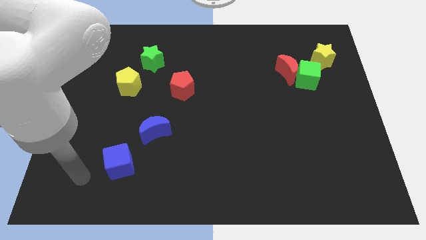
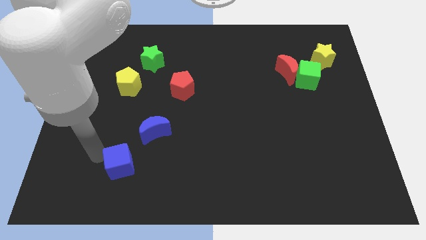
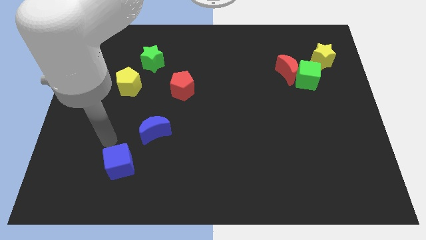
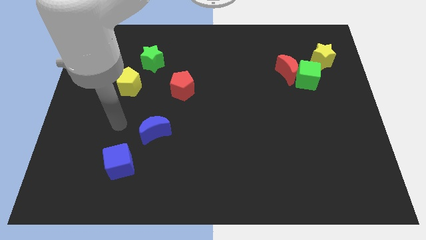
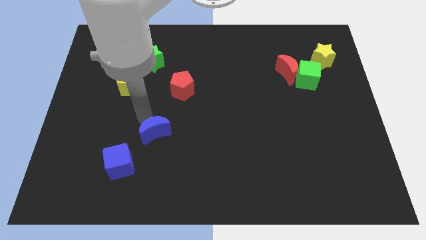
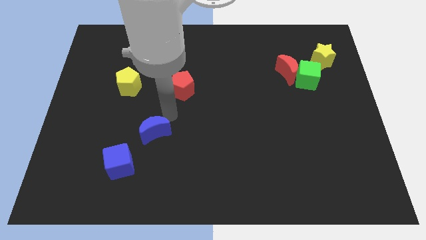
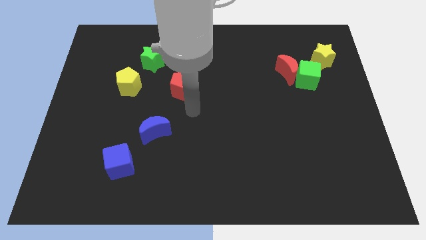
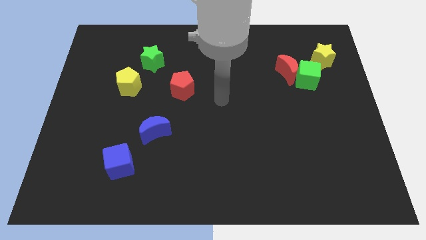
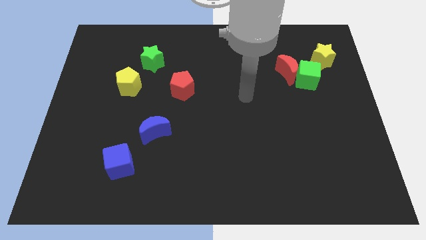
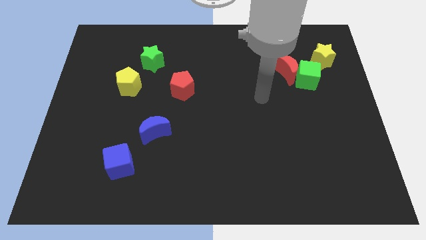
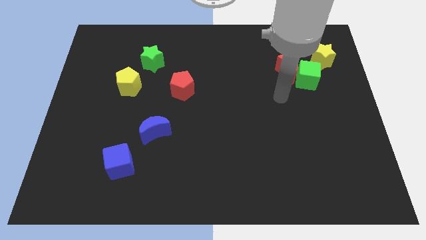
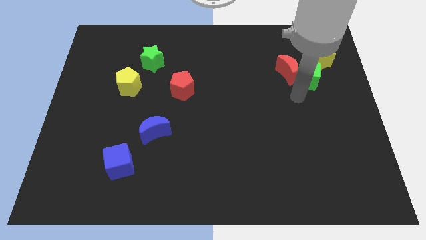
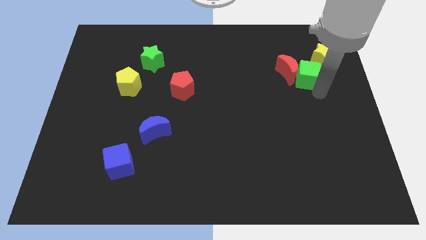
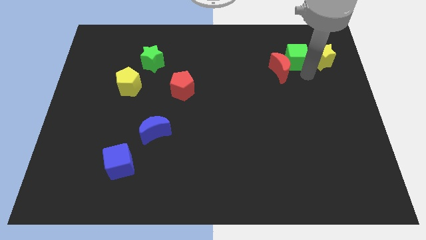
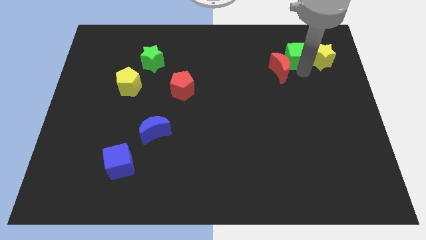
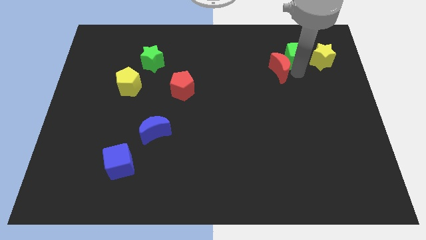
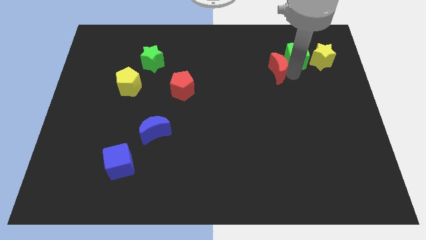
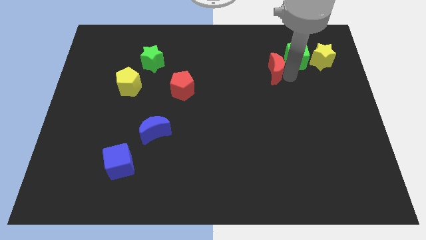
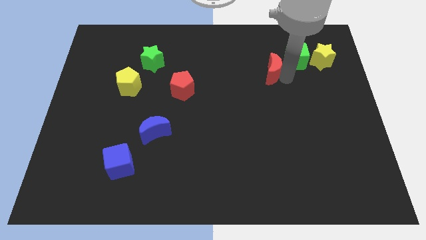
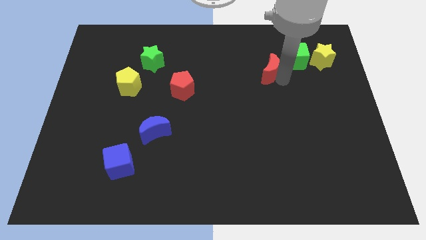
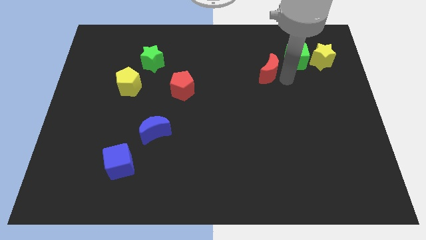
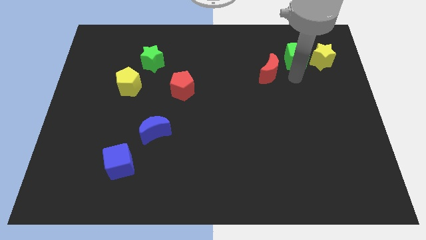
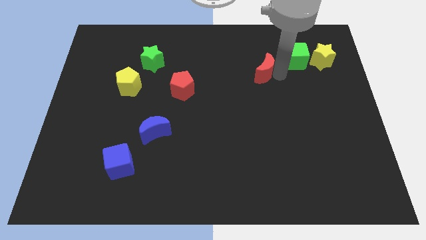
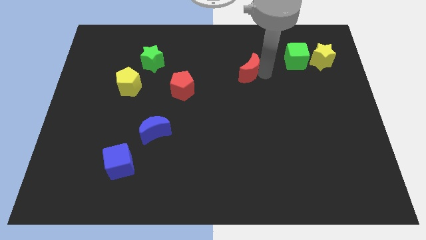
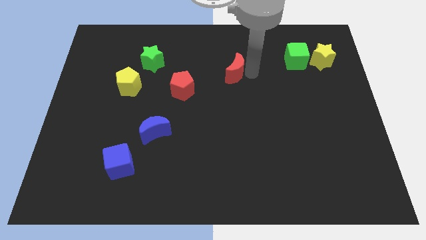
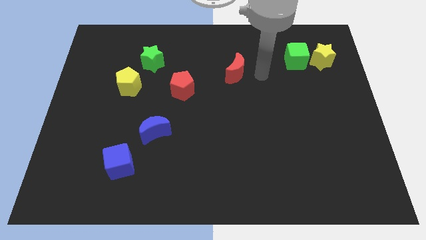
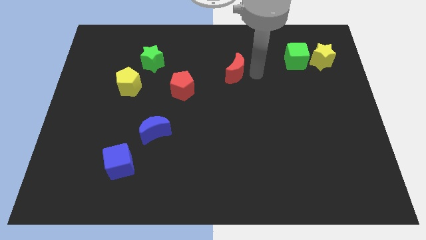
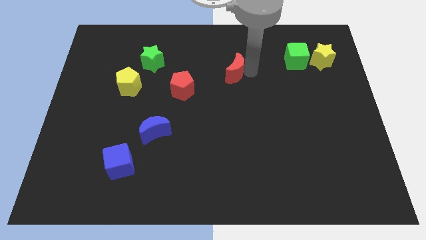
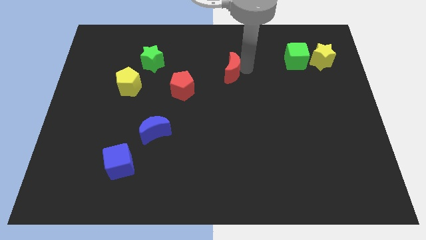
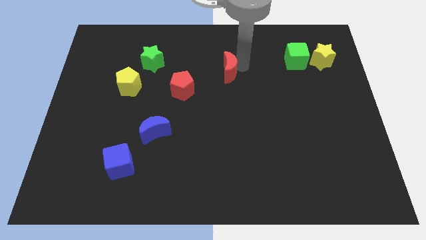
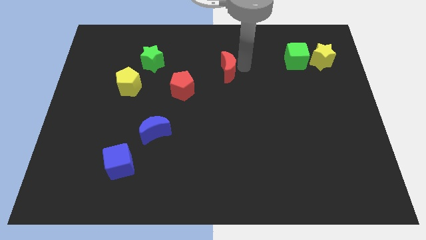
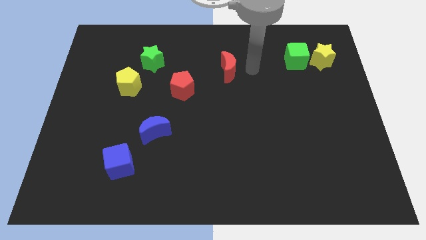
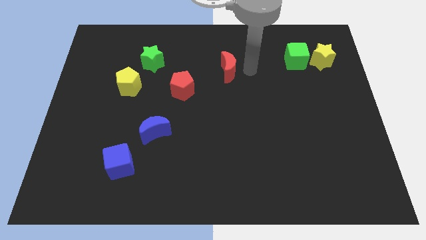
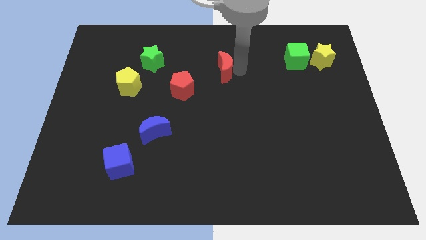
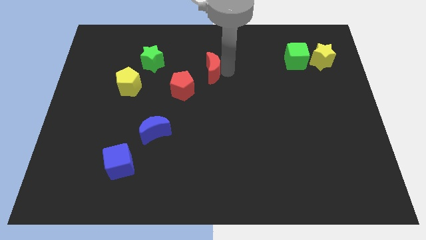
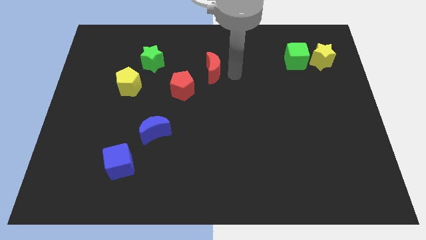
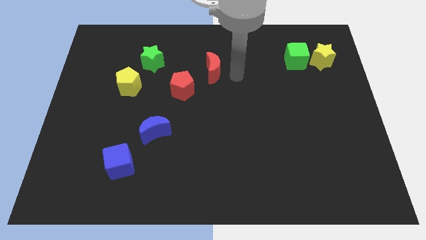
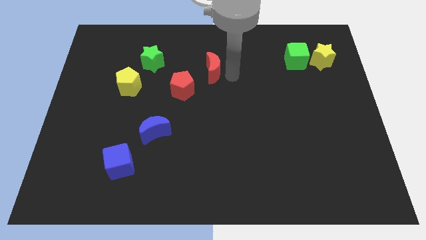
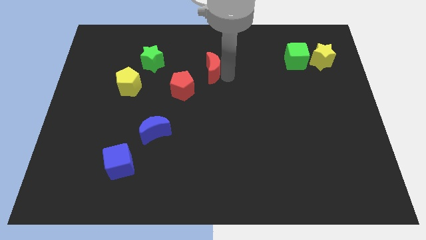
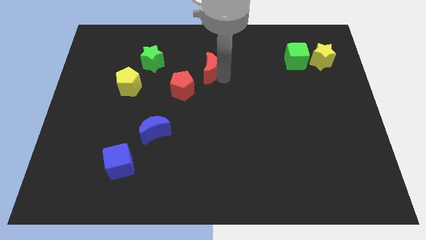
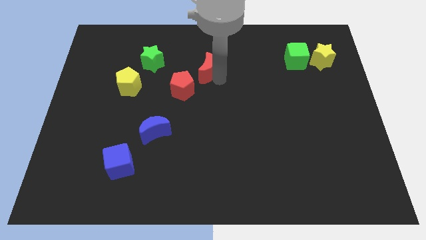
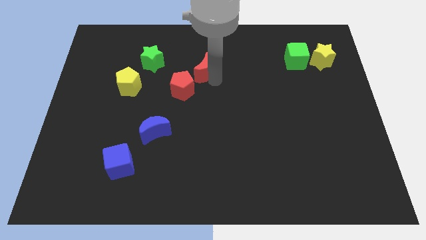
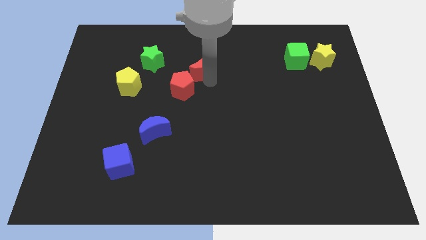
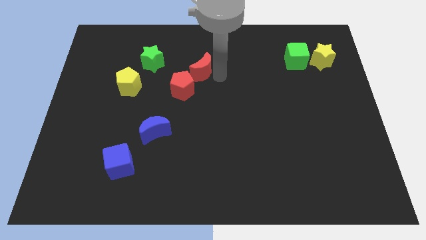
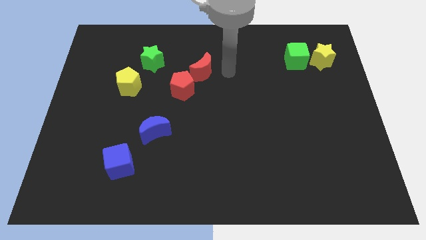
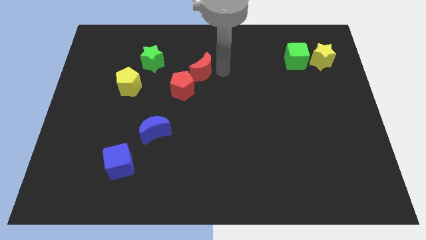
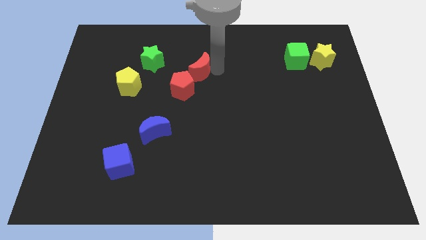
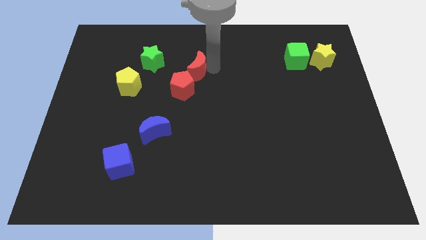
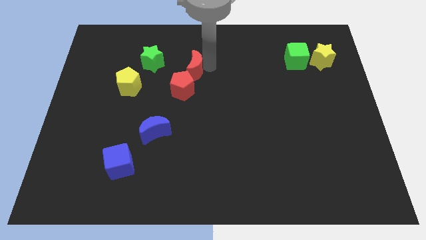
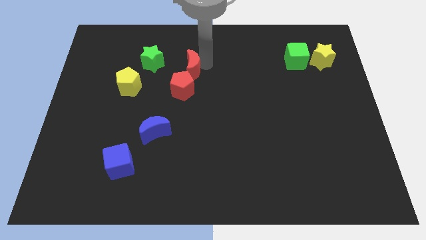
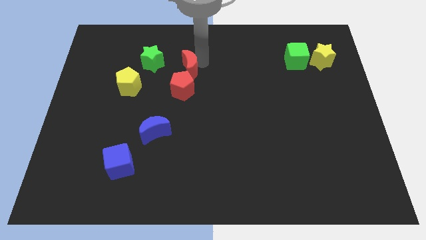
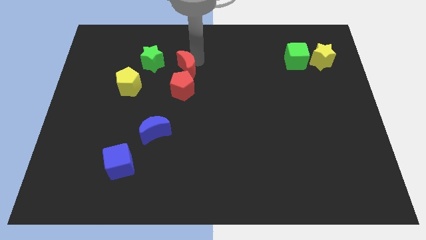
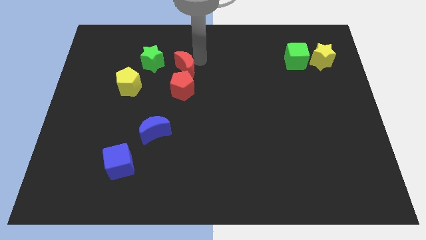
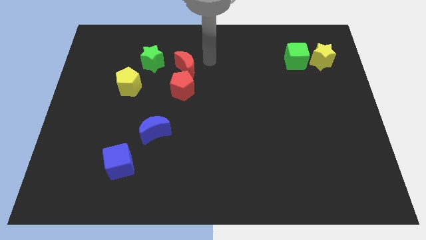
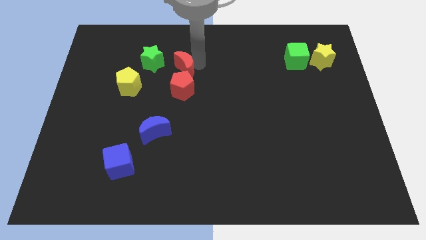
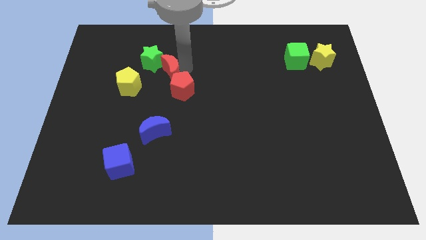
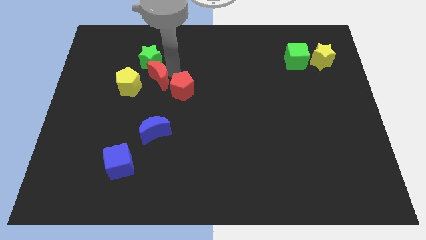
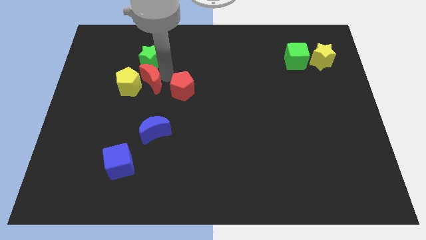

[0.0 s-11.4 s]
slide the red moon towards the yellow pentagon

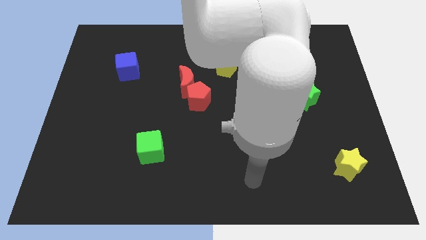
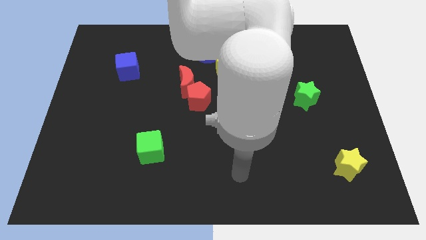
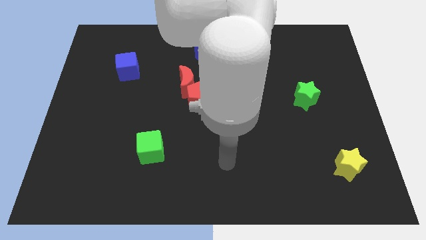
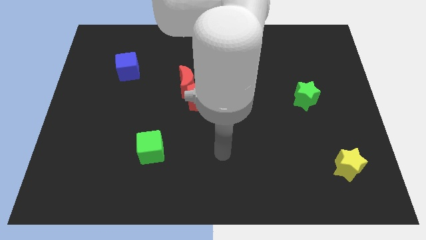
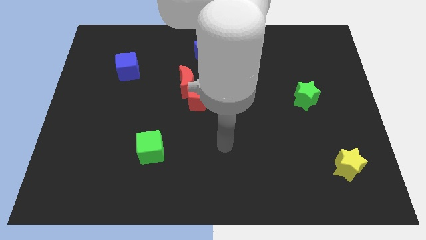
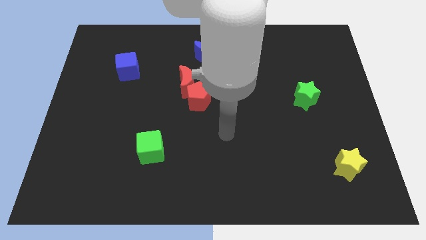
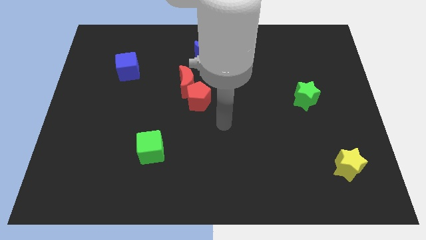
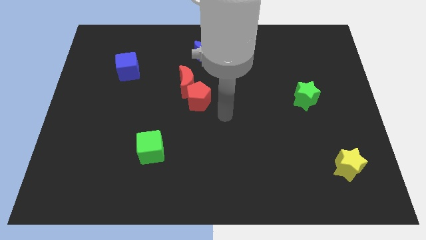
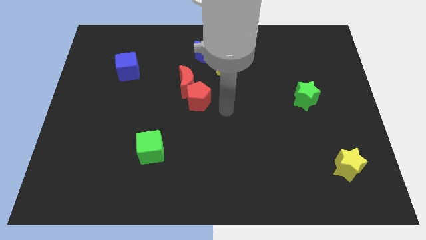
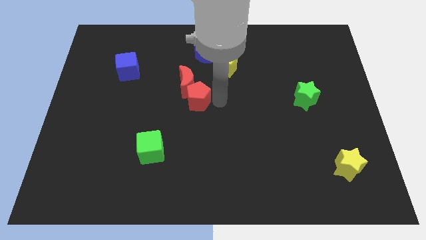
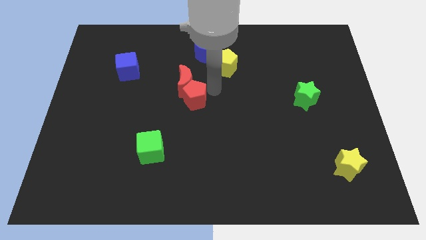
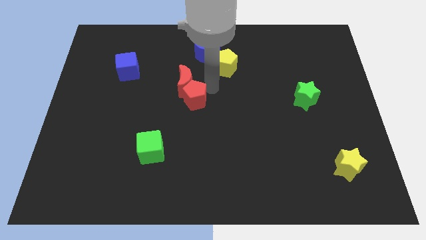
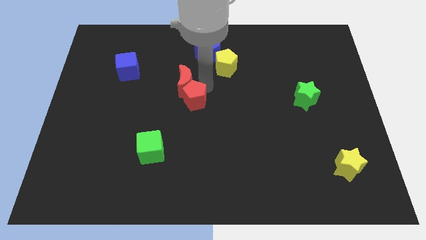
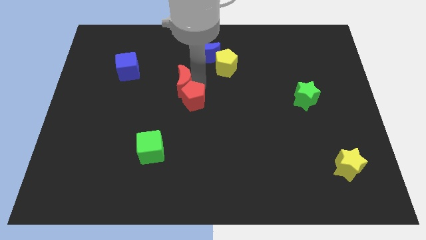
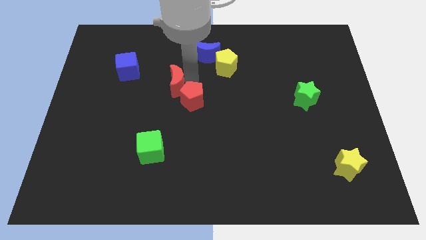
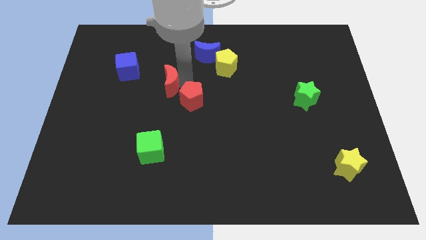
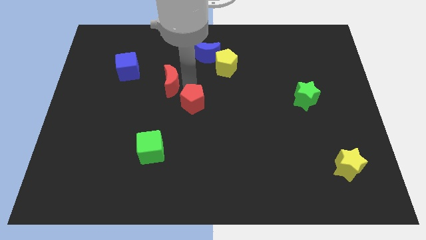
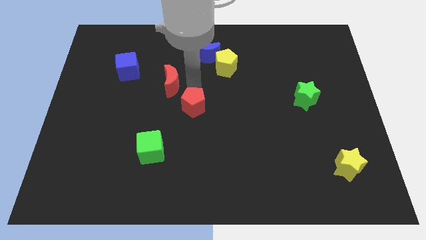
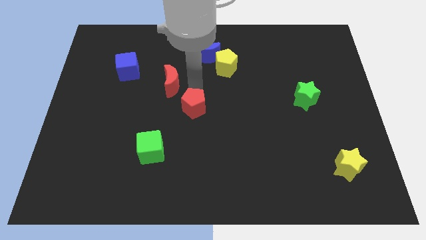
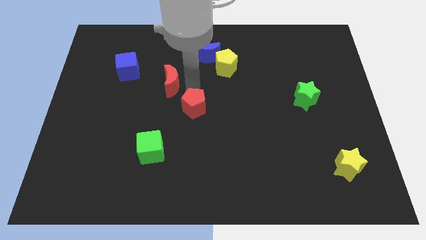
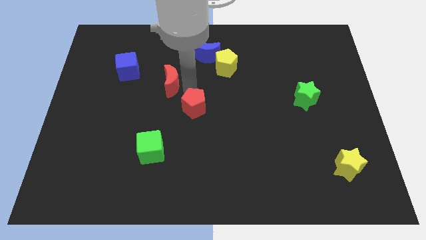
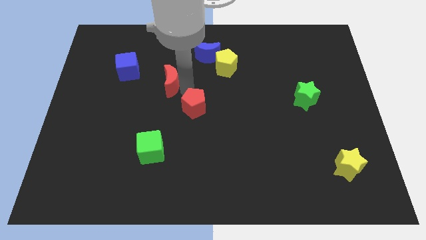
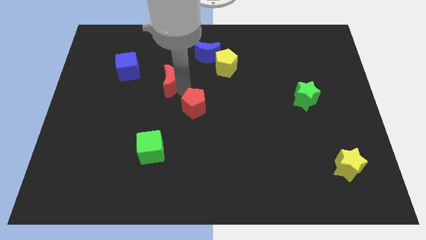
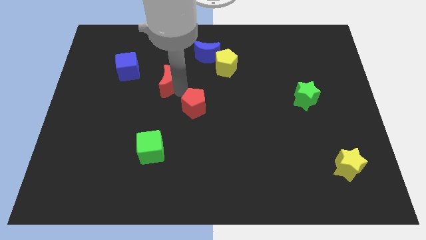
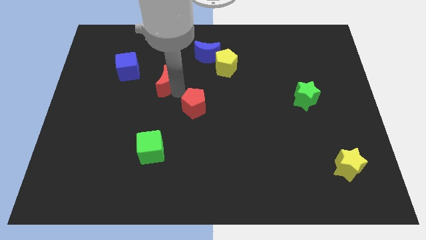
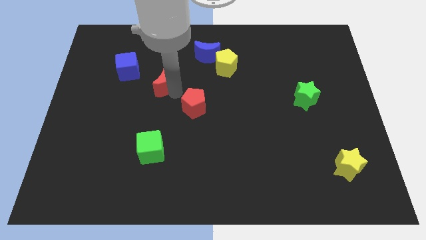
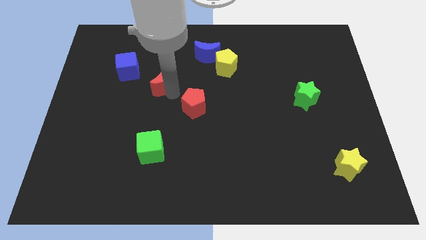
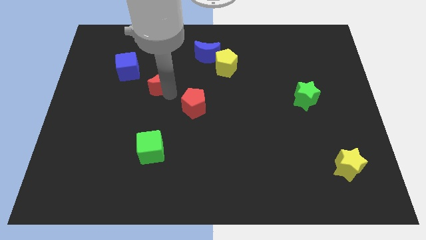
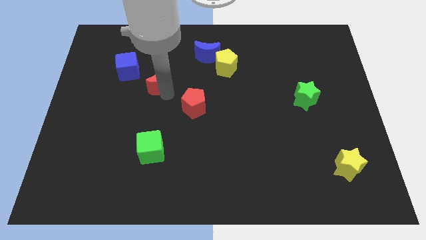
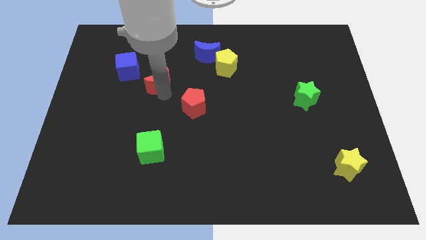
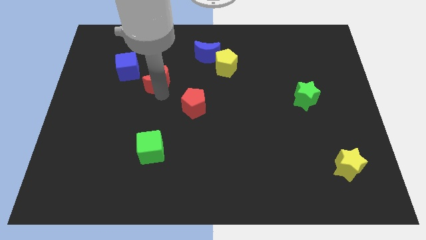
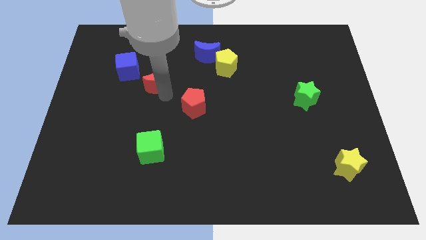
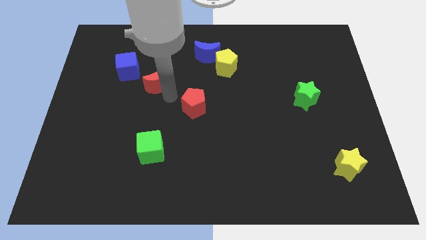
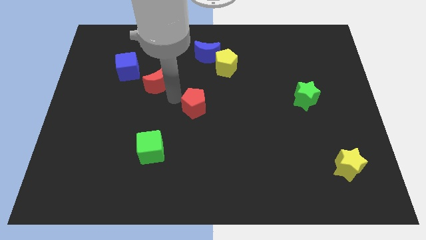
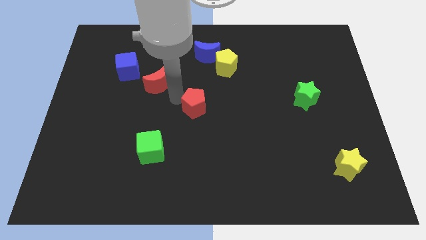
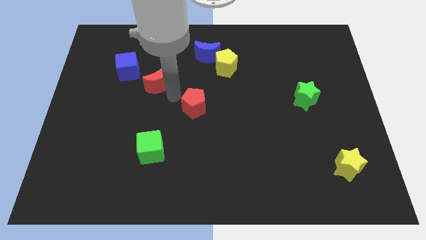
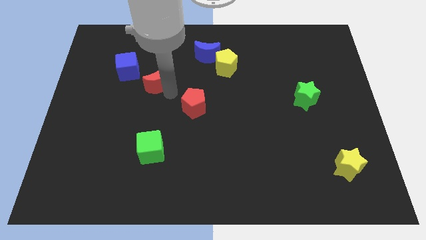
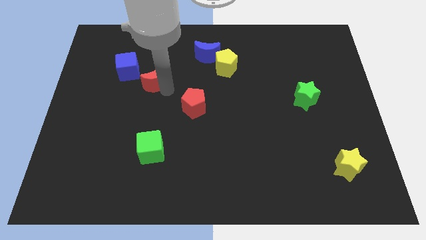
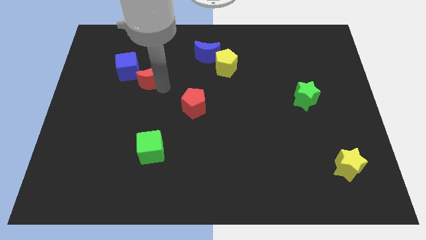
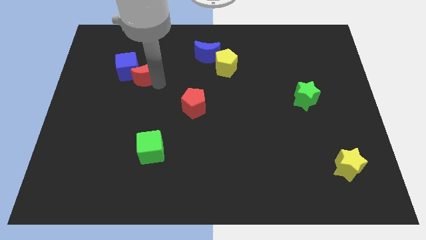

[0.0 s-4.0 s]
slide the red moon close to the blue cube
